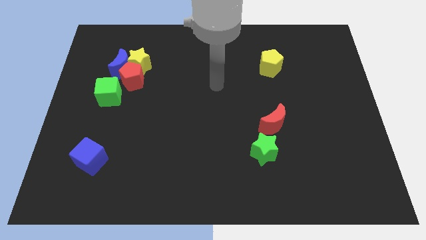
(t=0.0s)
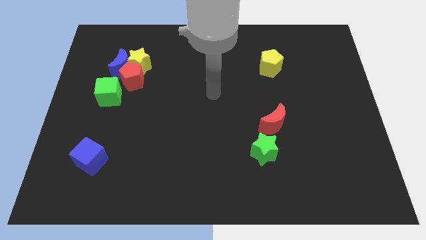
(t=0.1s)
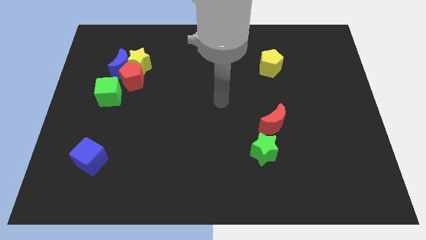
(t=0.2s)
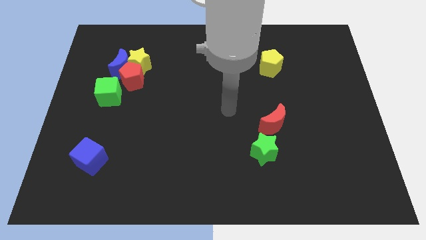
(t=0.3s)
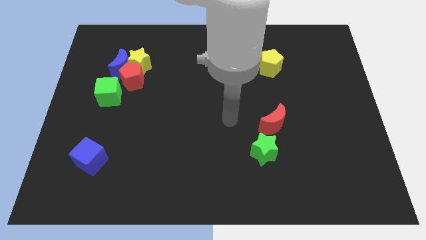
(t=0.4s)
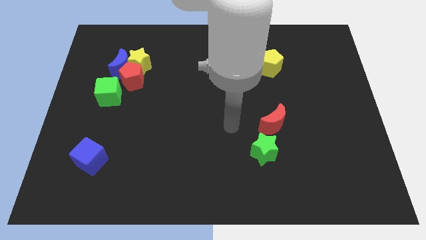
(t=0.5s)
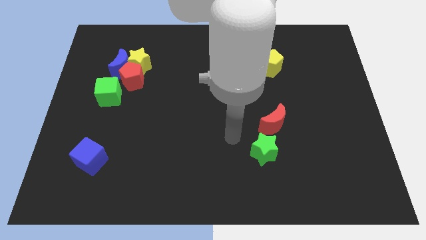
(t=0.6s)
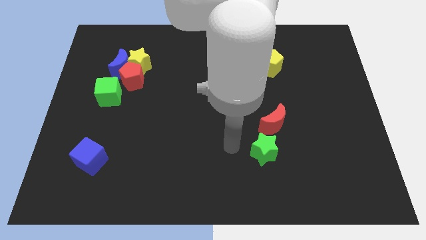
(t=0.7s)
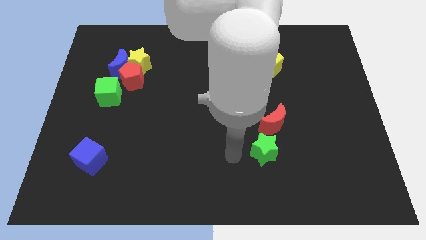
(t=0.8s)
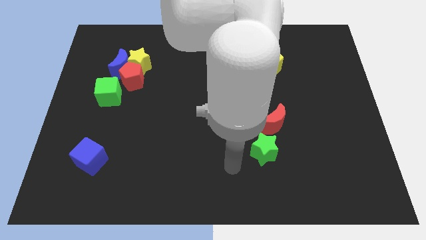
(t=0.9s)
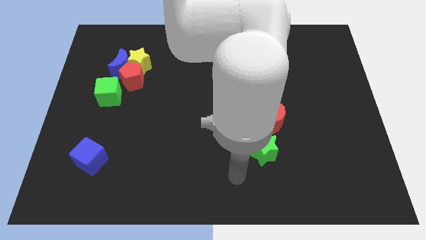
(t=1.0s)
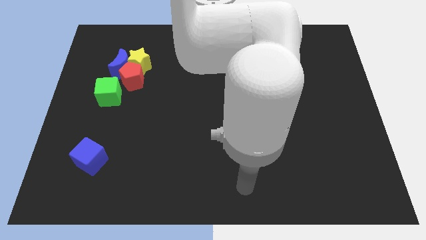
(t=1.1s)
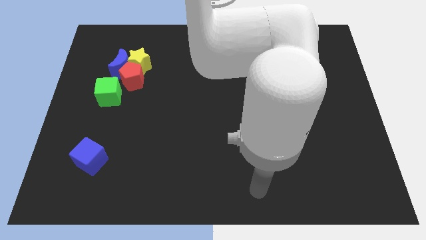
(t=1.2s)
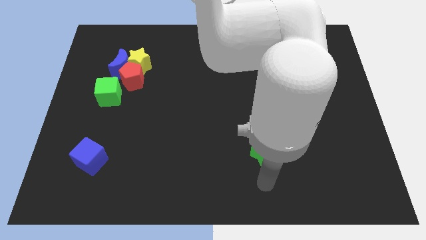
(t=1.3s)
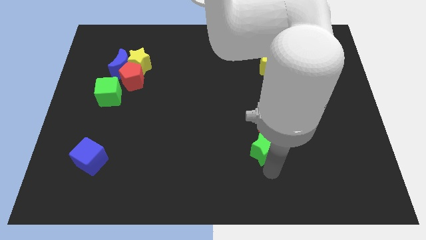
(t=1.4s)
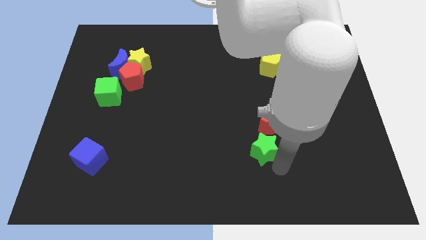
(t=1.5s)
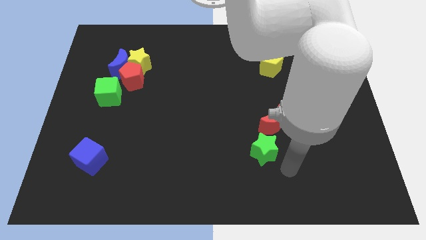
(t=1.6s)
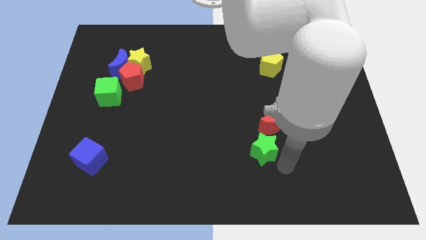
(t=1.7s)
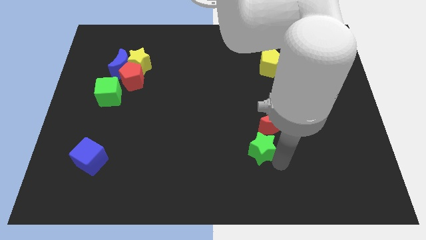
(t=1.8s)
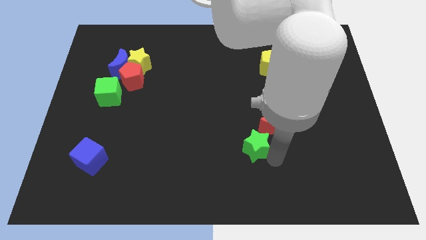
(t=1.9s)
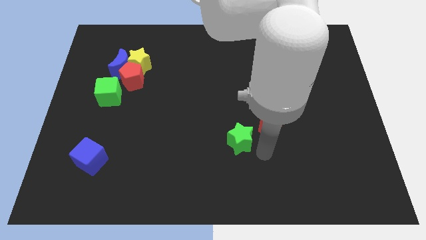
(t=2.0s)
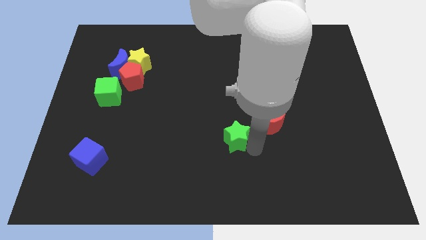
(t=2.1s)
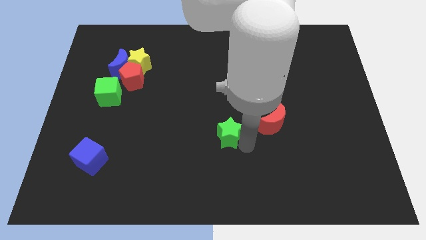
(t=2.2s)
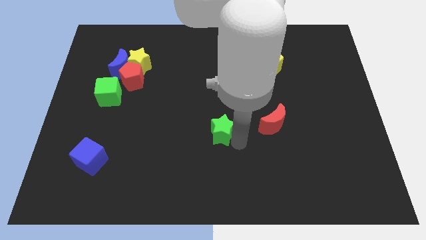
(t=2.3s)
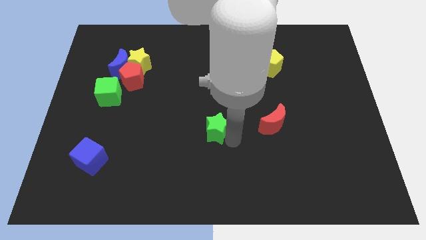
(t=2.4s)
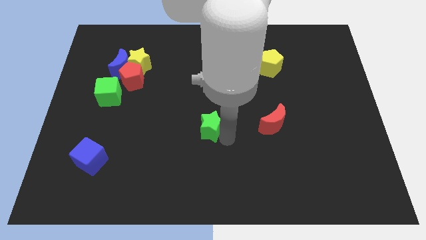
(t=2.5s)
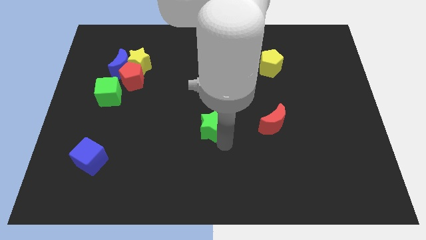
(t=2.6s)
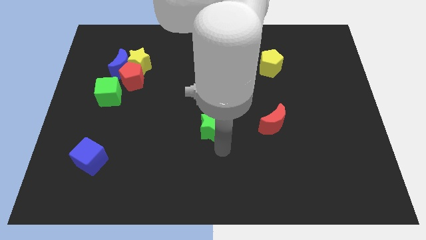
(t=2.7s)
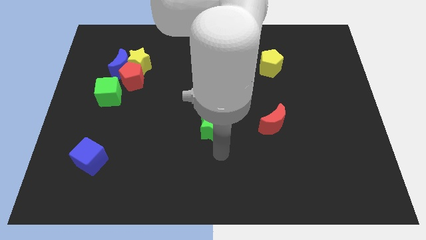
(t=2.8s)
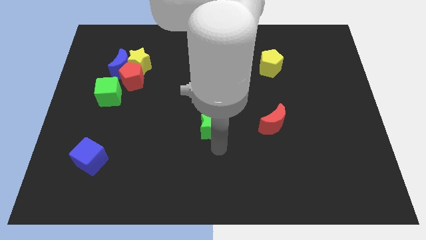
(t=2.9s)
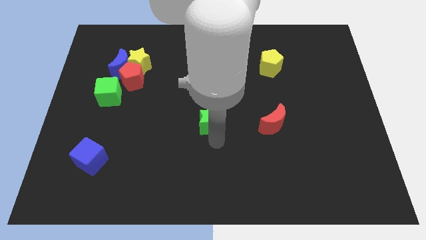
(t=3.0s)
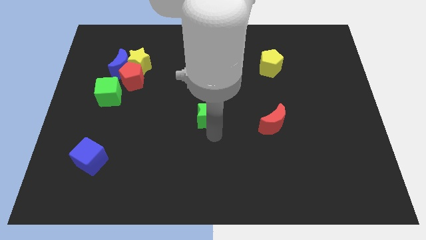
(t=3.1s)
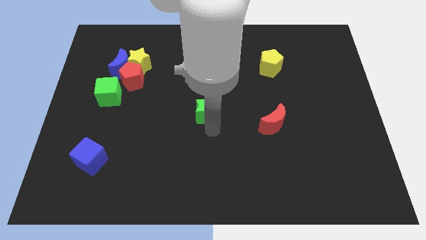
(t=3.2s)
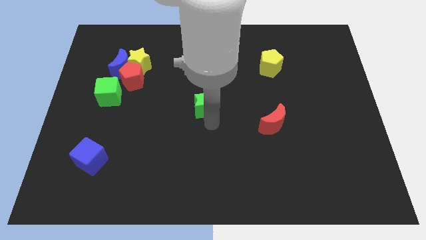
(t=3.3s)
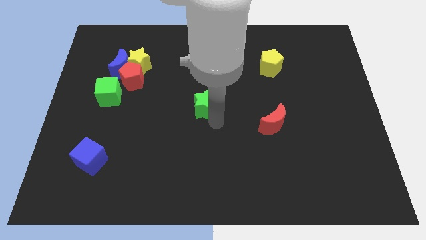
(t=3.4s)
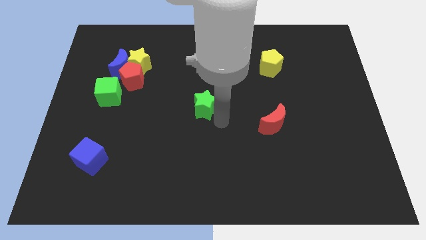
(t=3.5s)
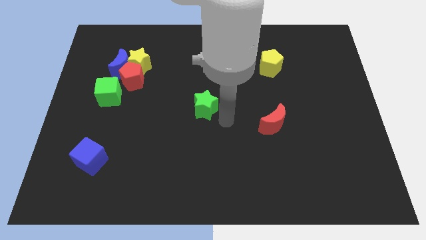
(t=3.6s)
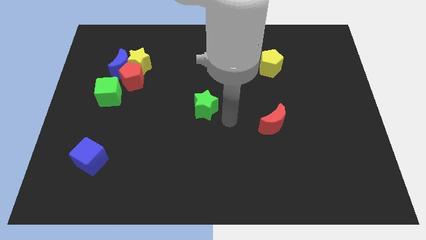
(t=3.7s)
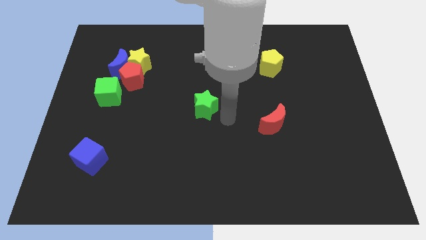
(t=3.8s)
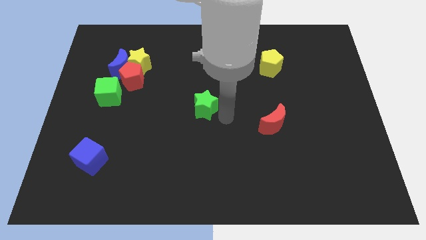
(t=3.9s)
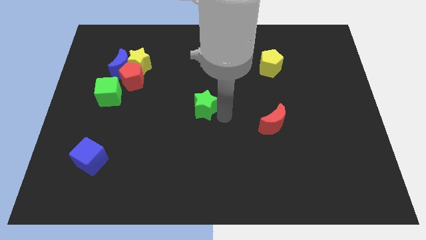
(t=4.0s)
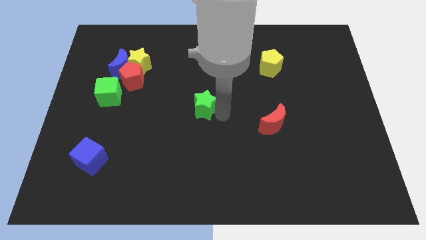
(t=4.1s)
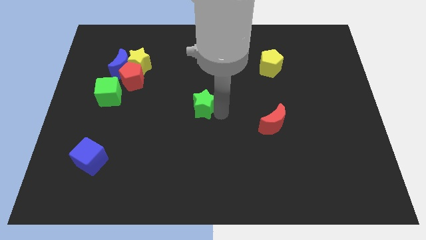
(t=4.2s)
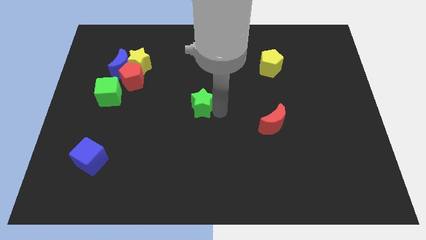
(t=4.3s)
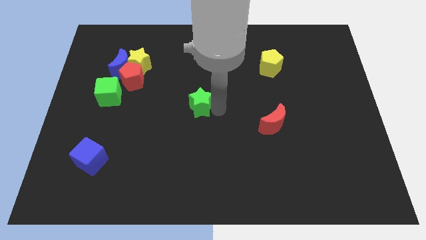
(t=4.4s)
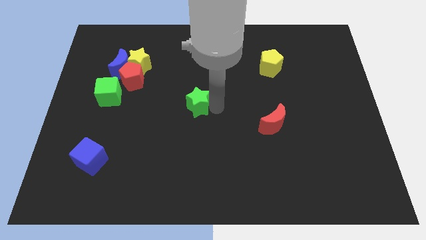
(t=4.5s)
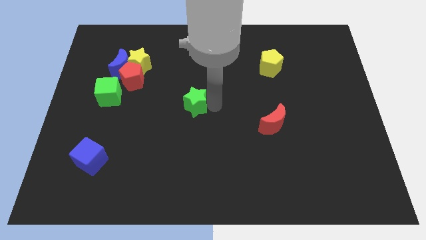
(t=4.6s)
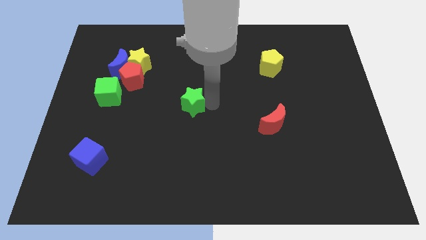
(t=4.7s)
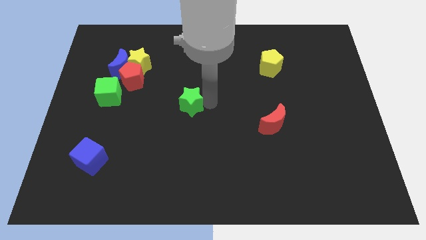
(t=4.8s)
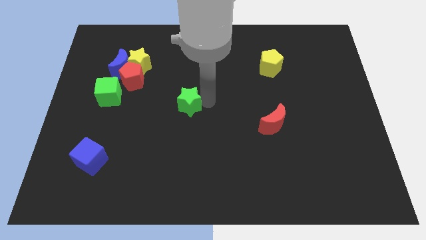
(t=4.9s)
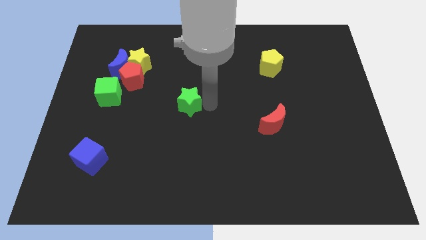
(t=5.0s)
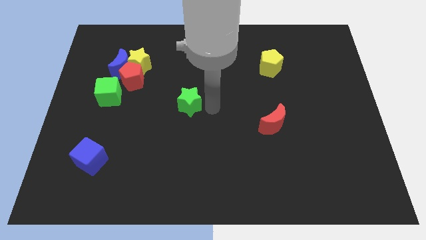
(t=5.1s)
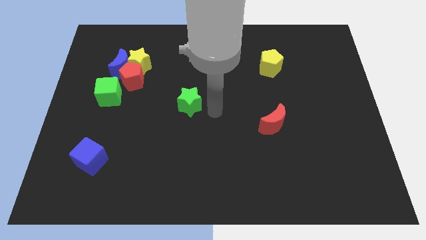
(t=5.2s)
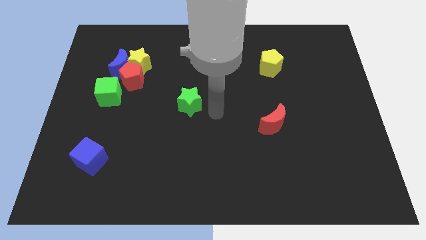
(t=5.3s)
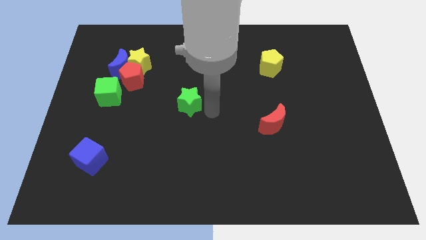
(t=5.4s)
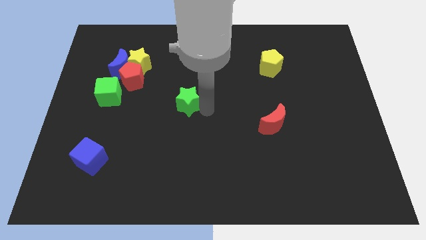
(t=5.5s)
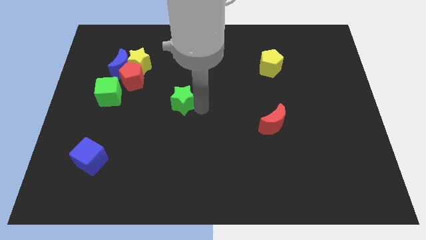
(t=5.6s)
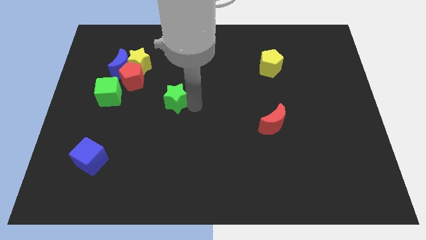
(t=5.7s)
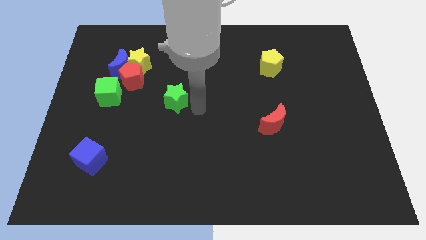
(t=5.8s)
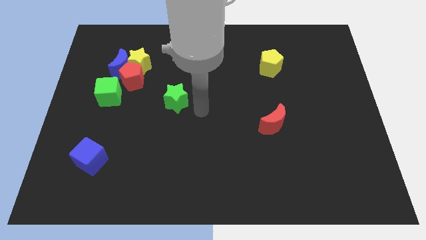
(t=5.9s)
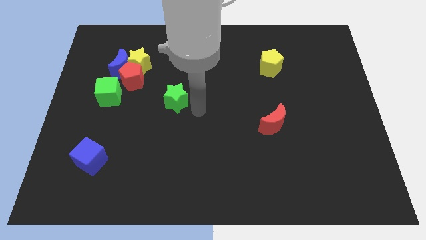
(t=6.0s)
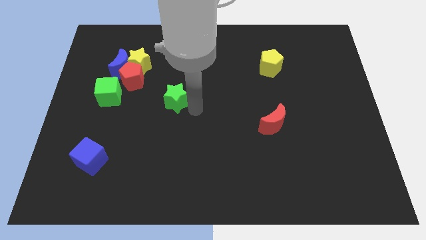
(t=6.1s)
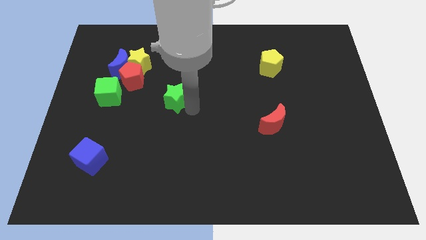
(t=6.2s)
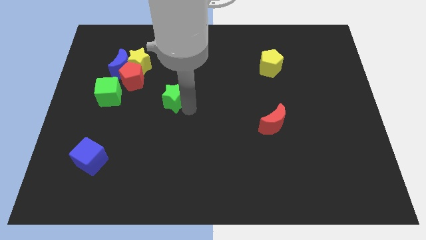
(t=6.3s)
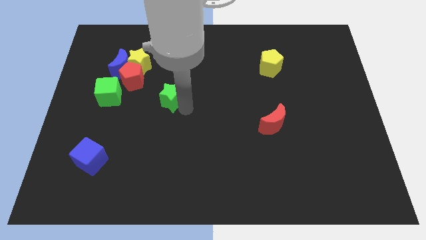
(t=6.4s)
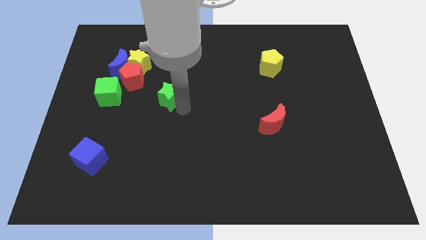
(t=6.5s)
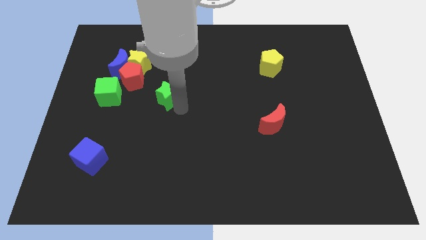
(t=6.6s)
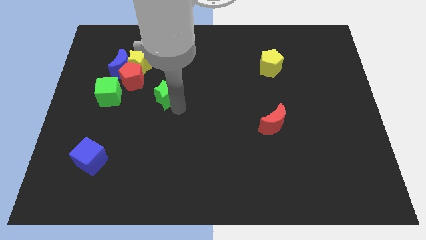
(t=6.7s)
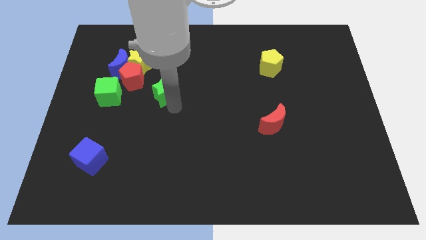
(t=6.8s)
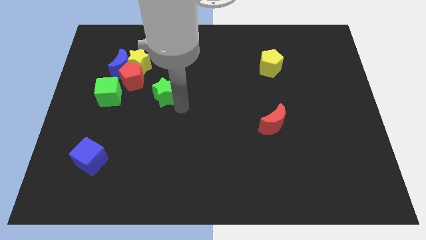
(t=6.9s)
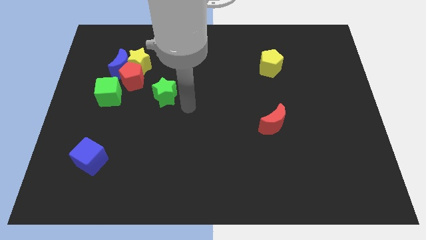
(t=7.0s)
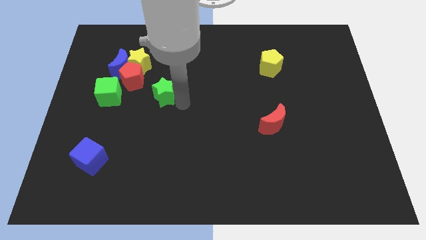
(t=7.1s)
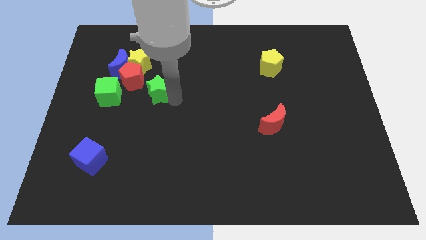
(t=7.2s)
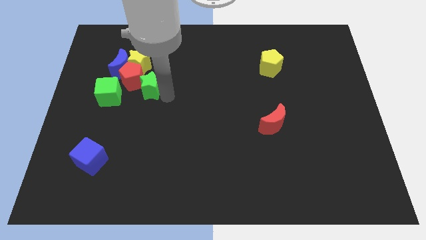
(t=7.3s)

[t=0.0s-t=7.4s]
put the green star towards the red pentagon
